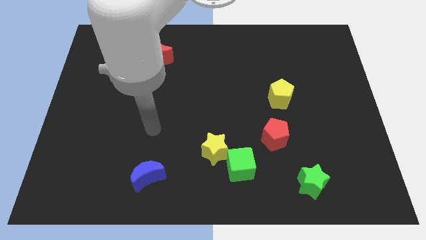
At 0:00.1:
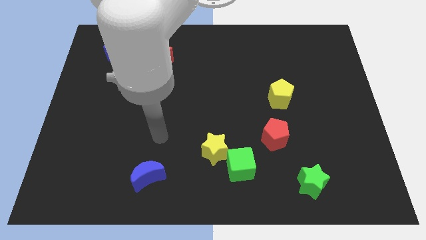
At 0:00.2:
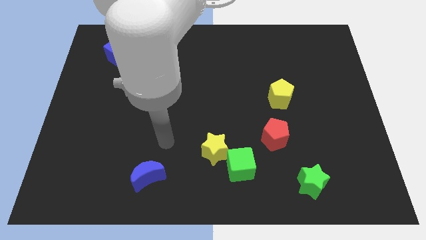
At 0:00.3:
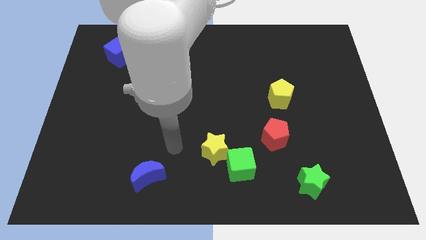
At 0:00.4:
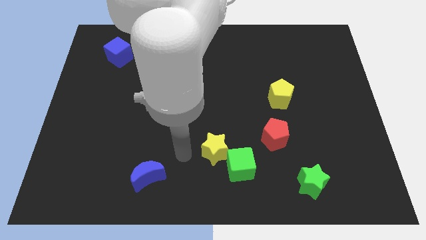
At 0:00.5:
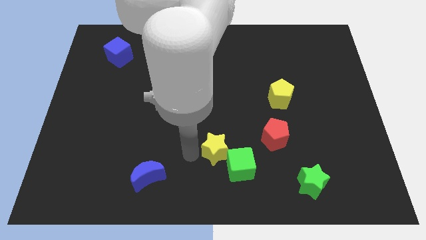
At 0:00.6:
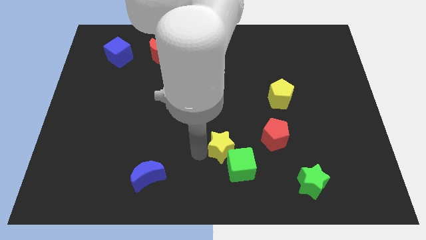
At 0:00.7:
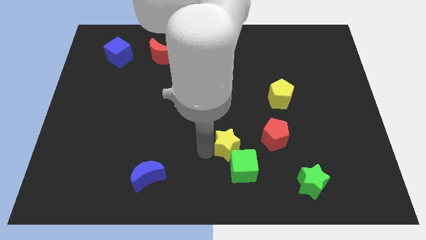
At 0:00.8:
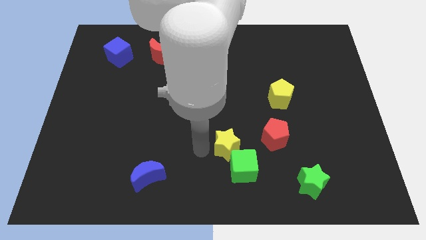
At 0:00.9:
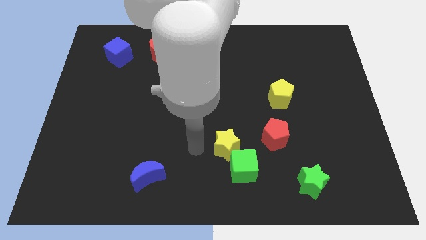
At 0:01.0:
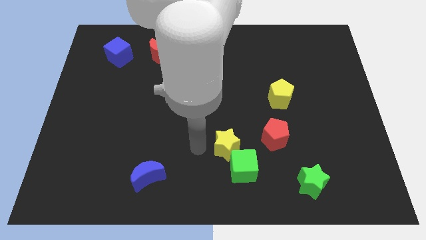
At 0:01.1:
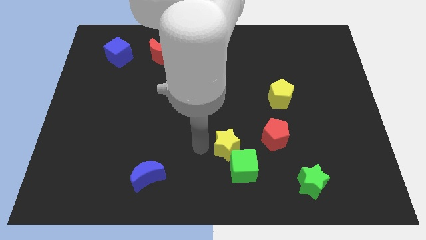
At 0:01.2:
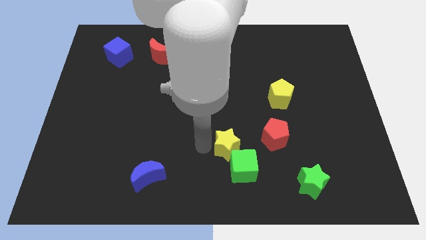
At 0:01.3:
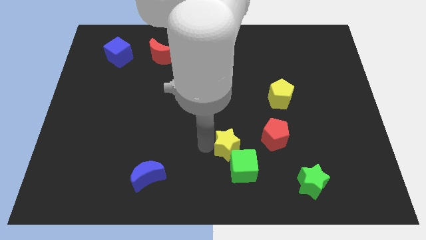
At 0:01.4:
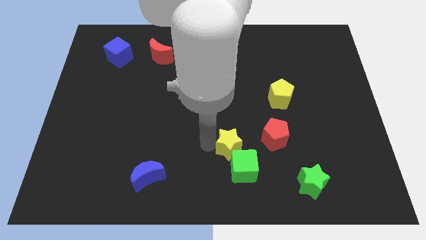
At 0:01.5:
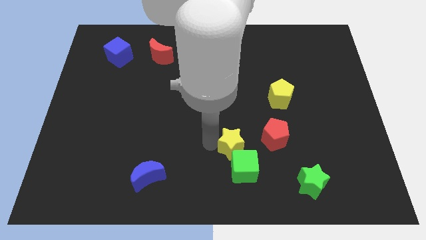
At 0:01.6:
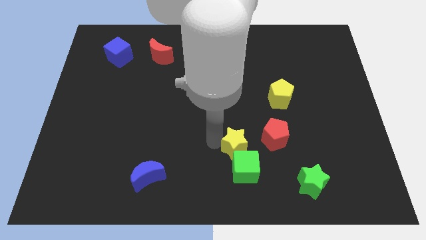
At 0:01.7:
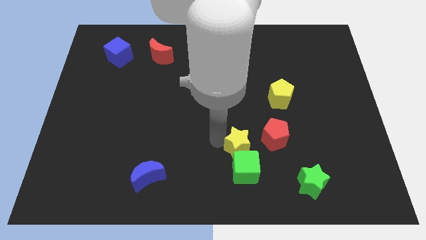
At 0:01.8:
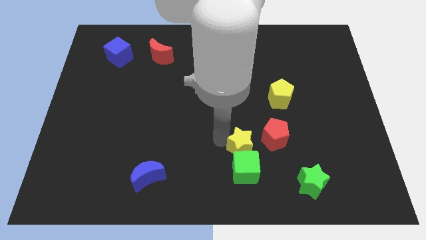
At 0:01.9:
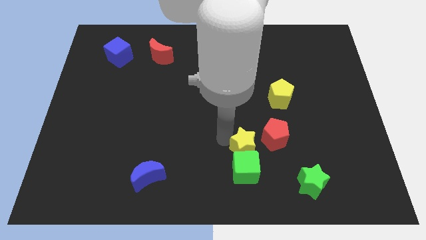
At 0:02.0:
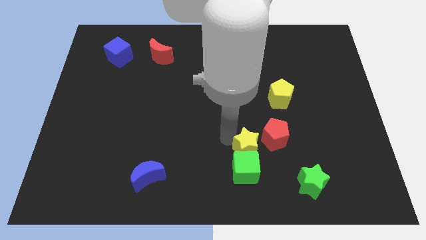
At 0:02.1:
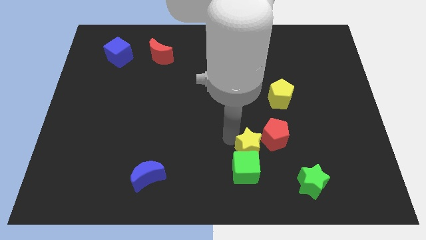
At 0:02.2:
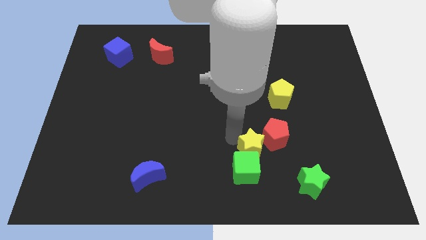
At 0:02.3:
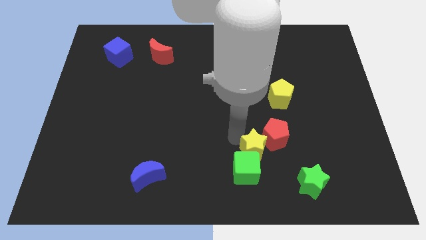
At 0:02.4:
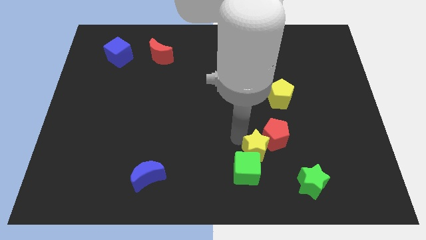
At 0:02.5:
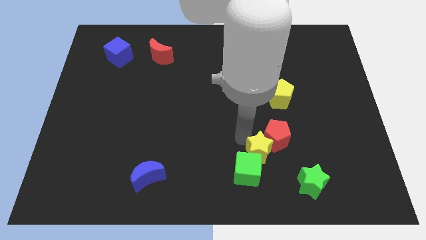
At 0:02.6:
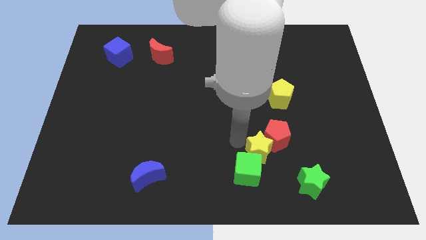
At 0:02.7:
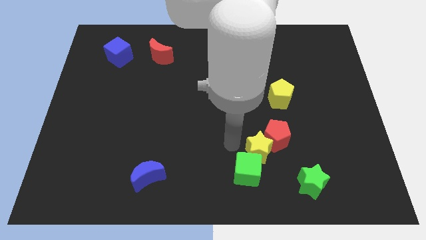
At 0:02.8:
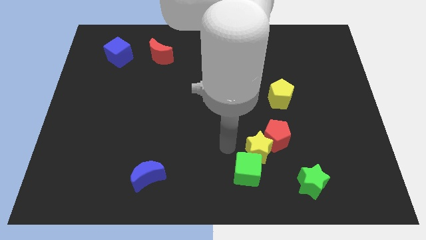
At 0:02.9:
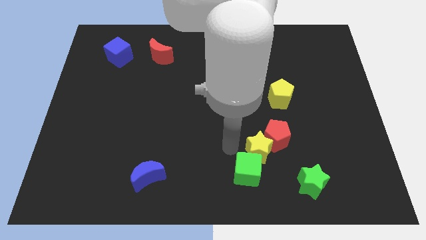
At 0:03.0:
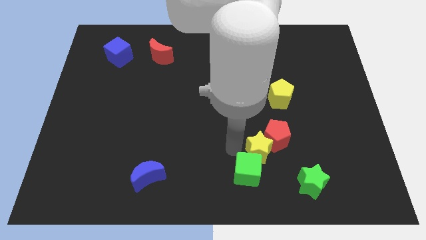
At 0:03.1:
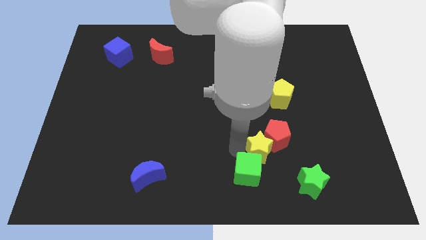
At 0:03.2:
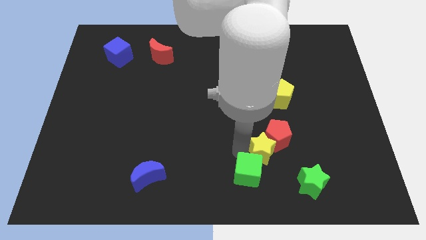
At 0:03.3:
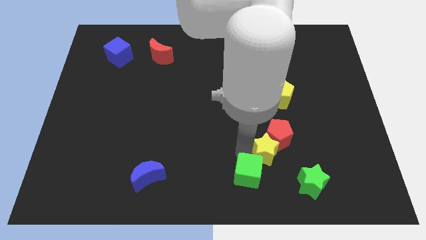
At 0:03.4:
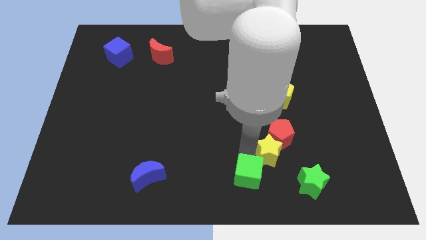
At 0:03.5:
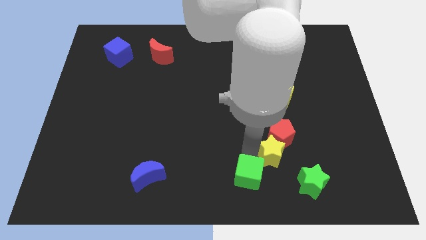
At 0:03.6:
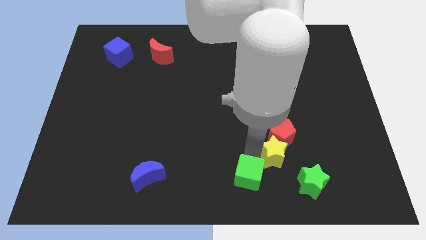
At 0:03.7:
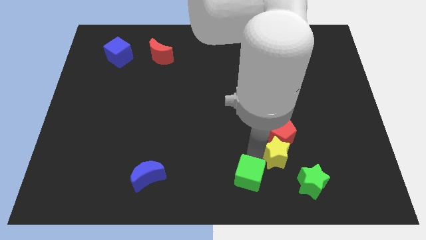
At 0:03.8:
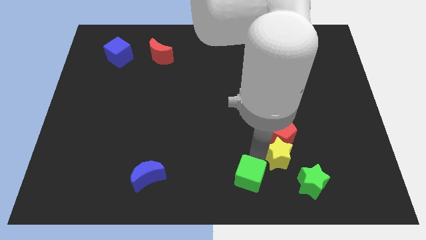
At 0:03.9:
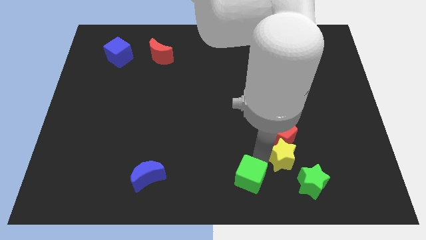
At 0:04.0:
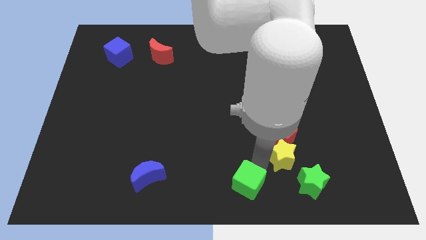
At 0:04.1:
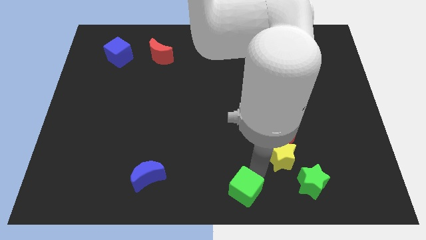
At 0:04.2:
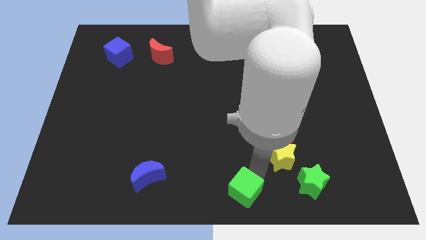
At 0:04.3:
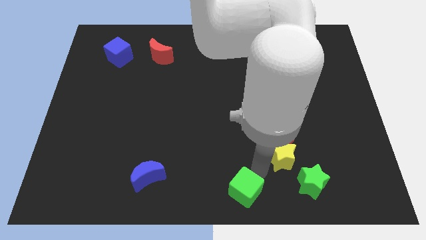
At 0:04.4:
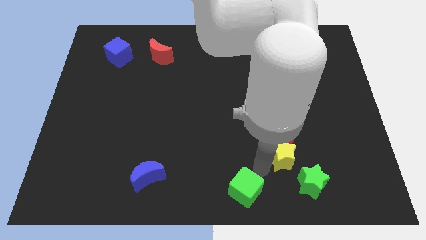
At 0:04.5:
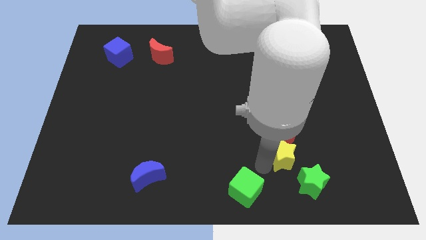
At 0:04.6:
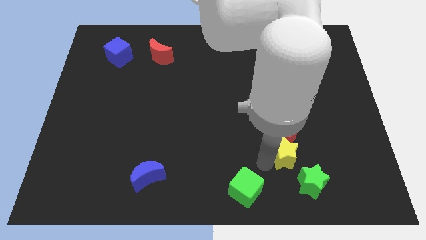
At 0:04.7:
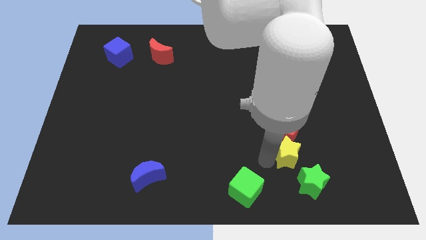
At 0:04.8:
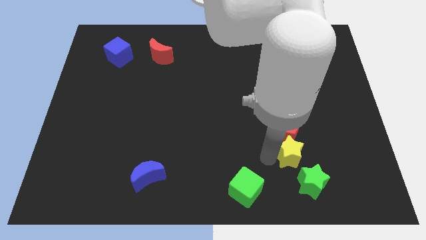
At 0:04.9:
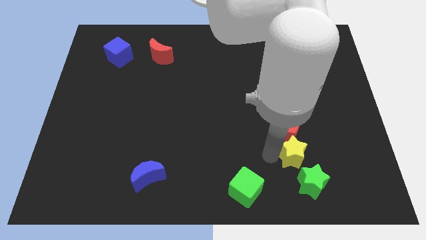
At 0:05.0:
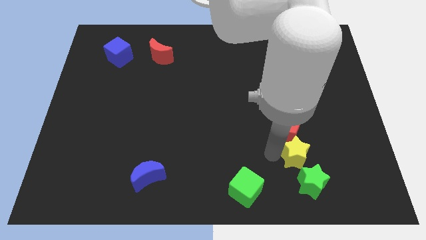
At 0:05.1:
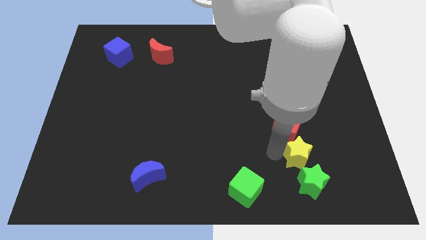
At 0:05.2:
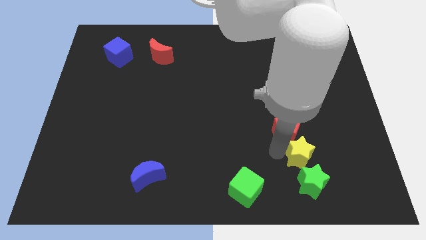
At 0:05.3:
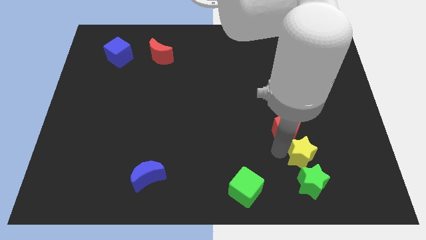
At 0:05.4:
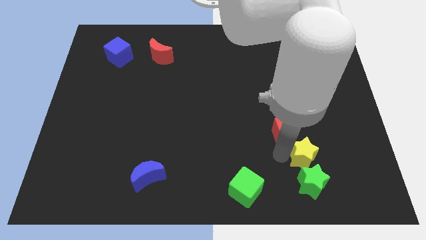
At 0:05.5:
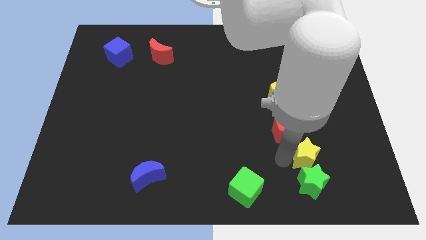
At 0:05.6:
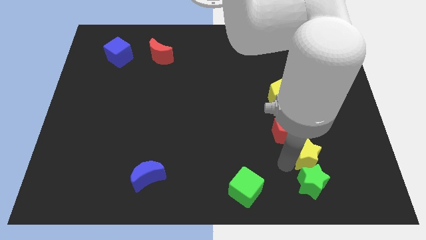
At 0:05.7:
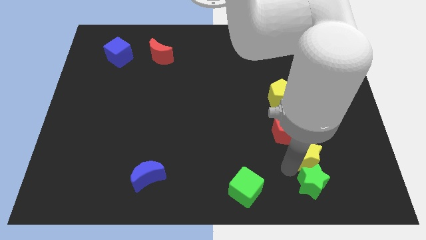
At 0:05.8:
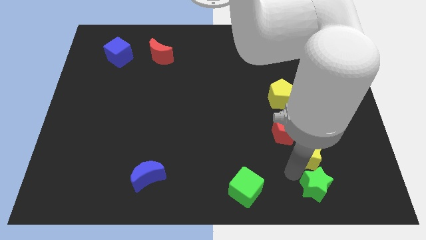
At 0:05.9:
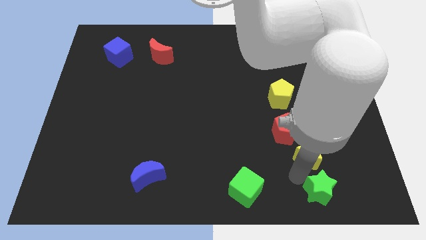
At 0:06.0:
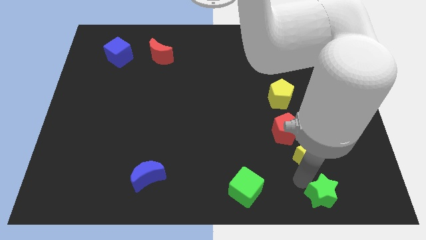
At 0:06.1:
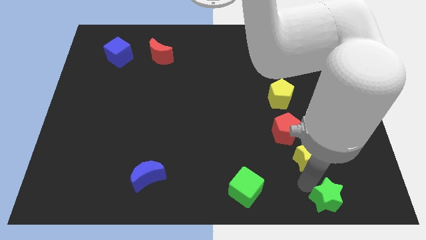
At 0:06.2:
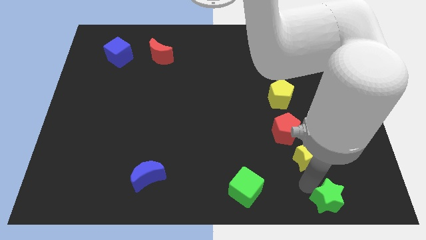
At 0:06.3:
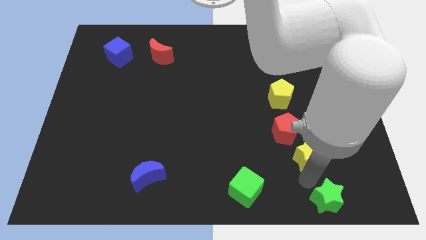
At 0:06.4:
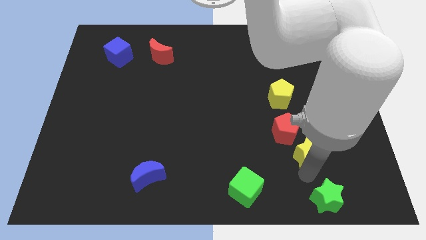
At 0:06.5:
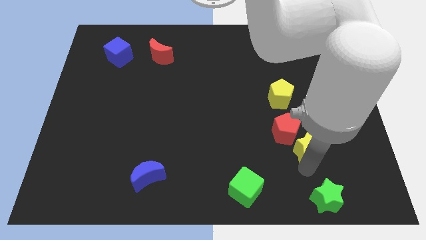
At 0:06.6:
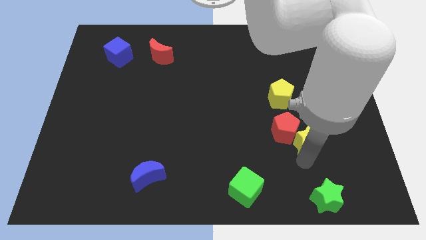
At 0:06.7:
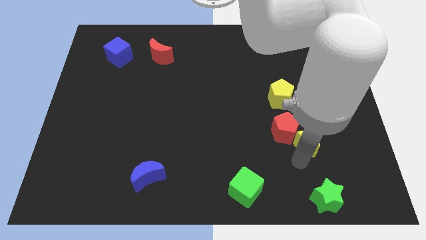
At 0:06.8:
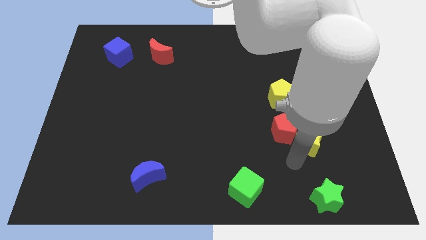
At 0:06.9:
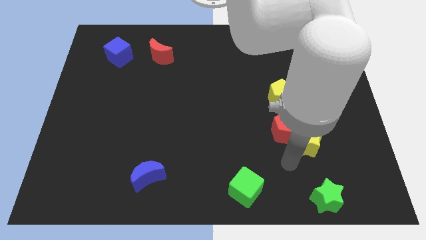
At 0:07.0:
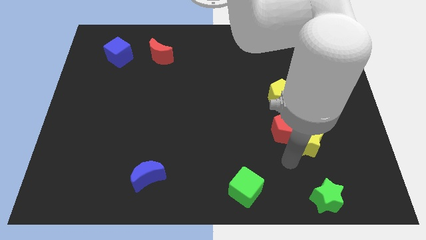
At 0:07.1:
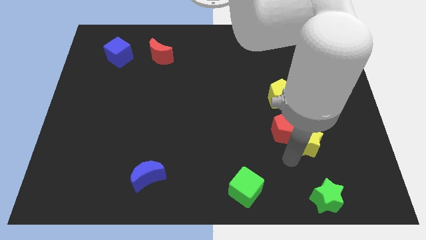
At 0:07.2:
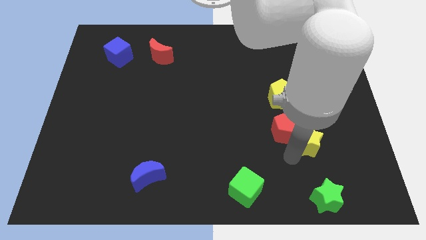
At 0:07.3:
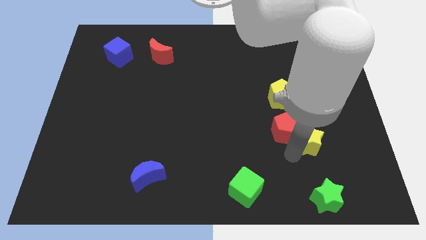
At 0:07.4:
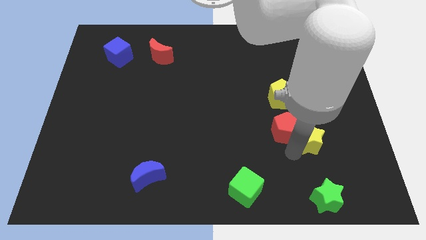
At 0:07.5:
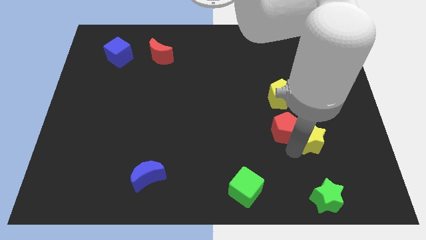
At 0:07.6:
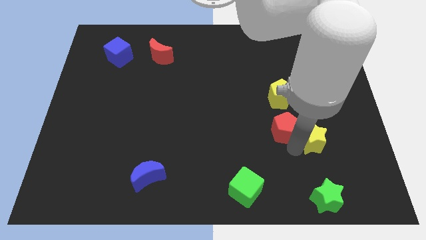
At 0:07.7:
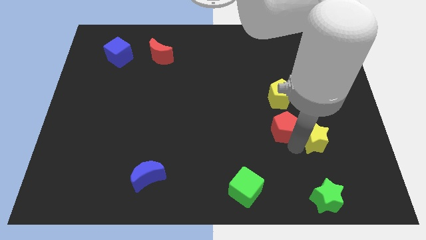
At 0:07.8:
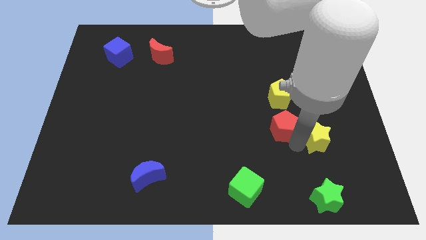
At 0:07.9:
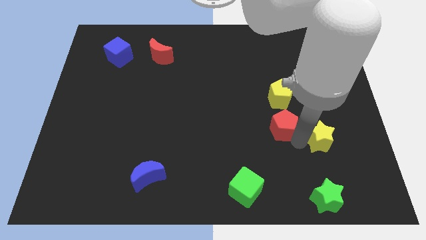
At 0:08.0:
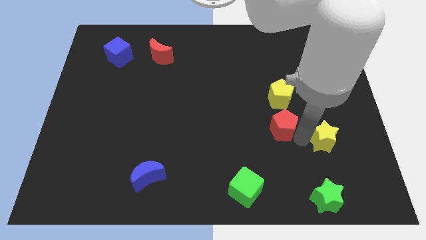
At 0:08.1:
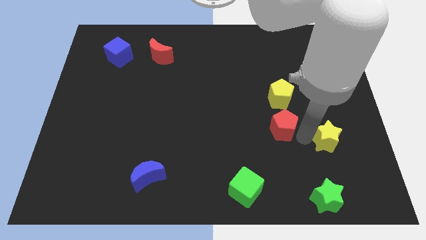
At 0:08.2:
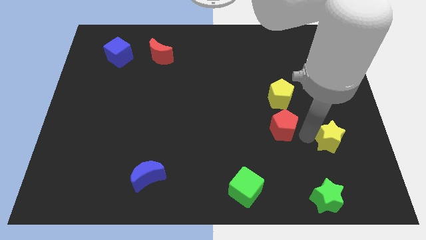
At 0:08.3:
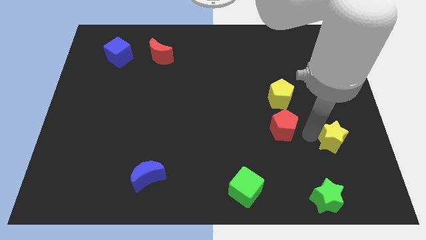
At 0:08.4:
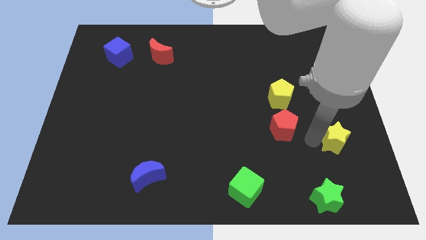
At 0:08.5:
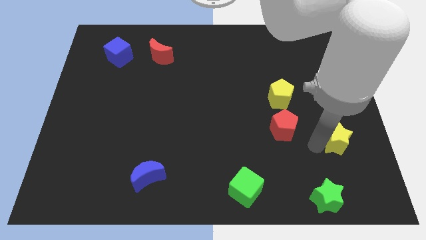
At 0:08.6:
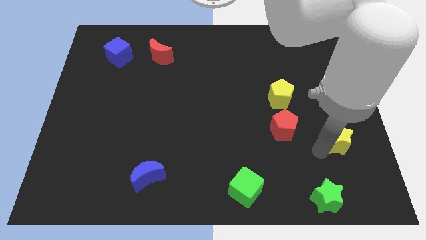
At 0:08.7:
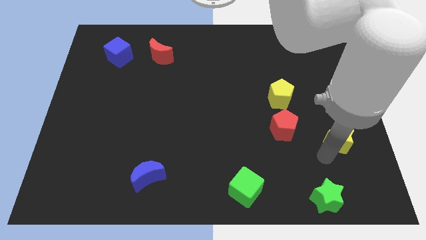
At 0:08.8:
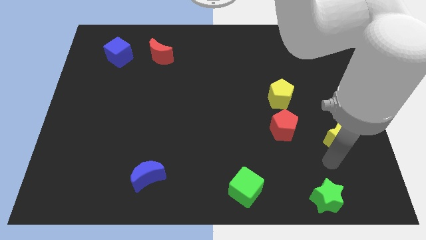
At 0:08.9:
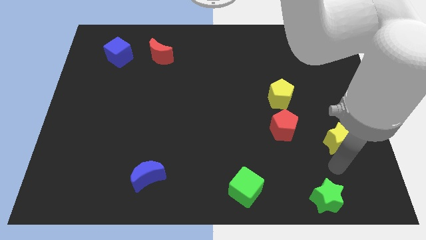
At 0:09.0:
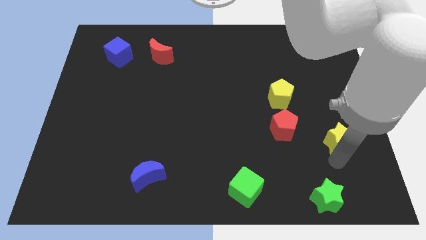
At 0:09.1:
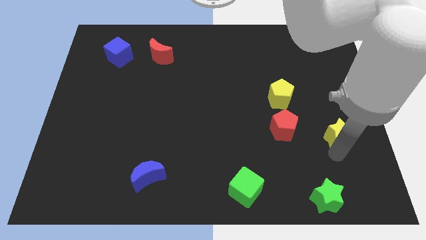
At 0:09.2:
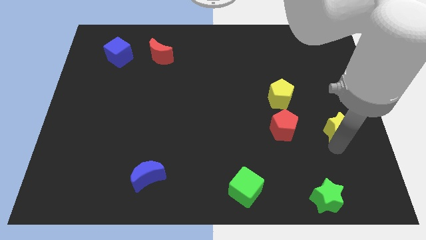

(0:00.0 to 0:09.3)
put the yellow star to the right side
